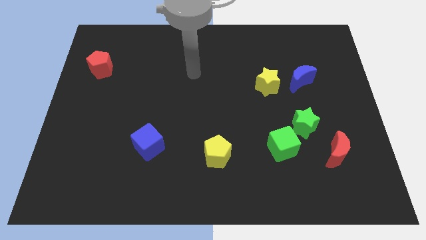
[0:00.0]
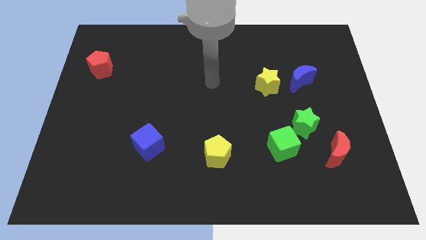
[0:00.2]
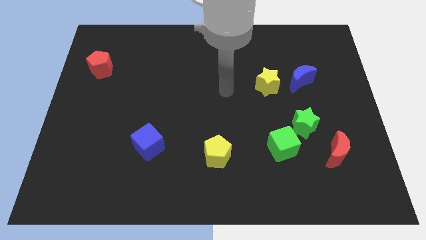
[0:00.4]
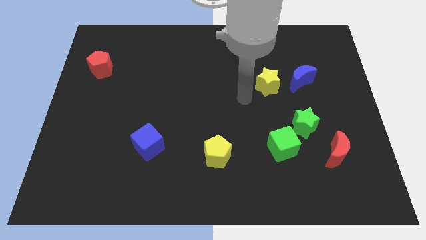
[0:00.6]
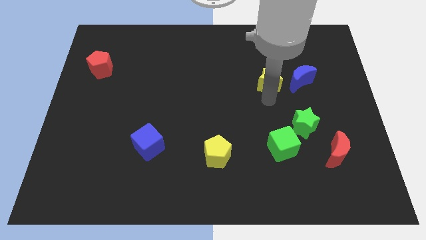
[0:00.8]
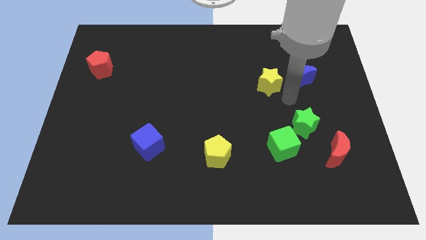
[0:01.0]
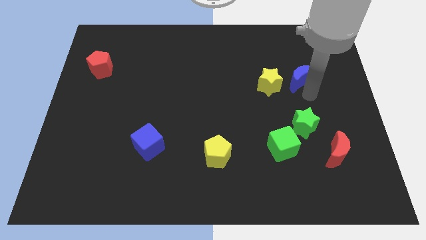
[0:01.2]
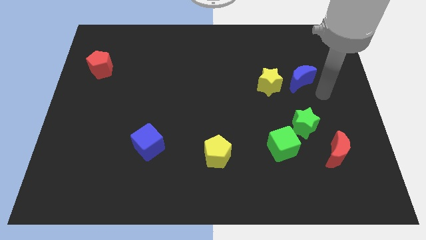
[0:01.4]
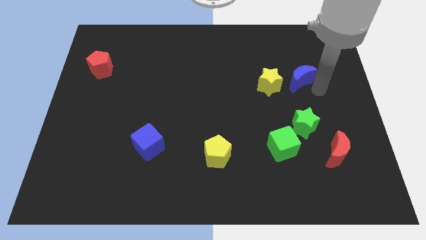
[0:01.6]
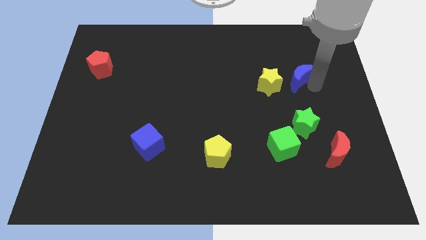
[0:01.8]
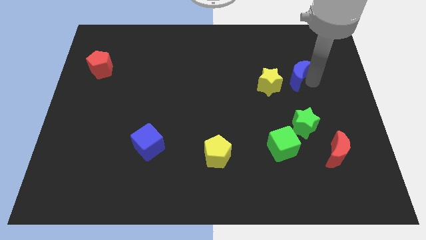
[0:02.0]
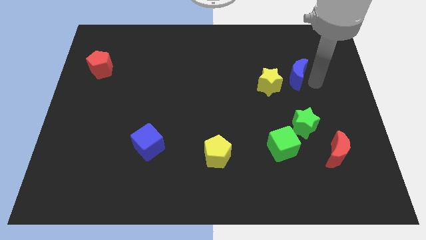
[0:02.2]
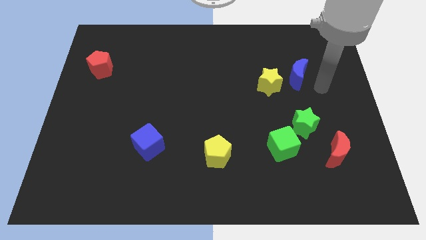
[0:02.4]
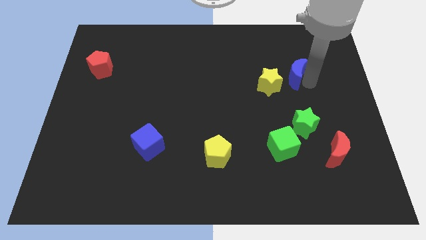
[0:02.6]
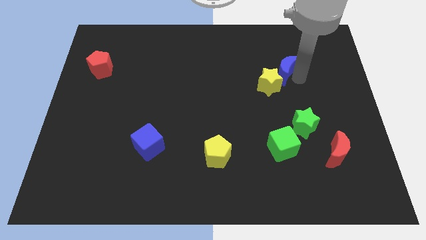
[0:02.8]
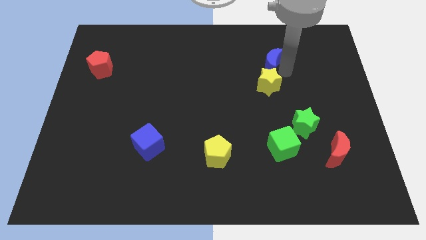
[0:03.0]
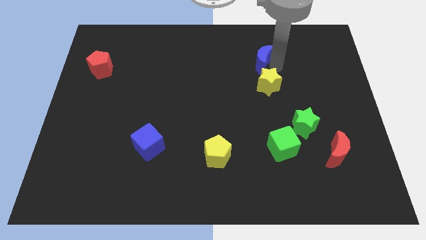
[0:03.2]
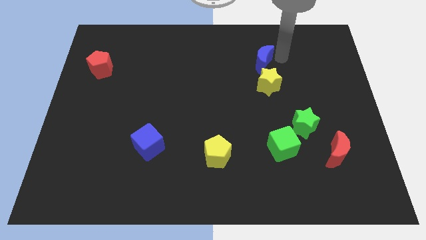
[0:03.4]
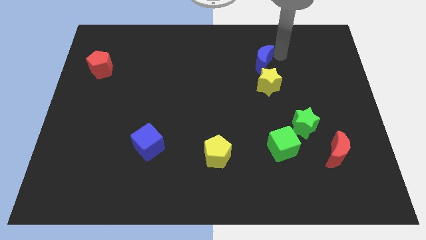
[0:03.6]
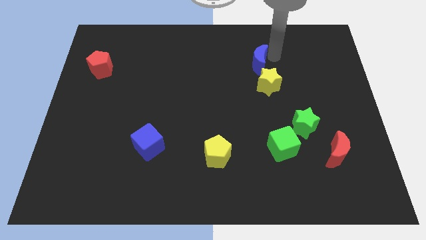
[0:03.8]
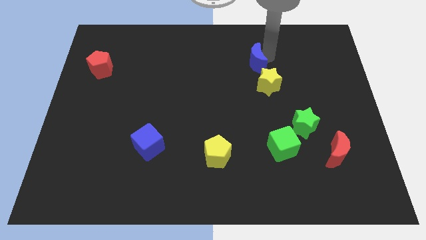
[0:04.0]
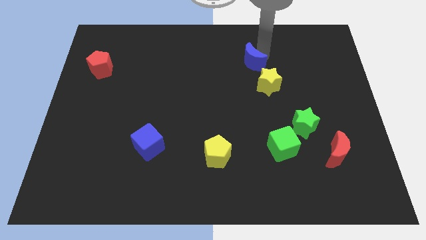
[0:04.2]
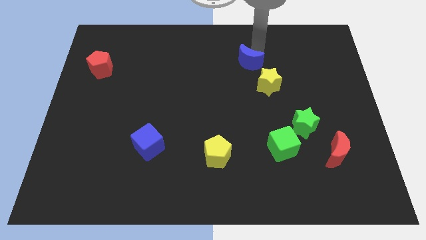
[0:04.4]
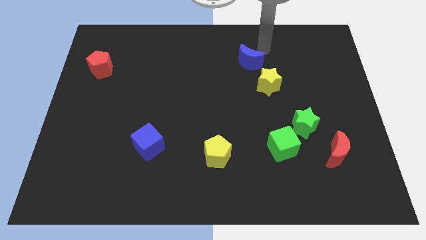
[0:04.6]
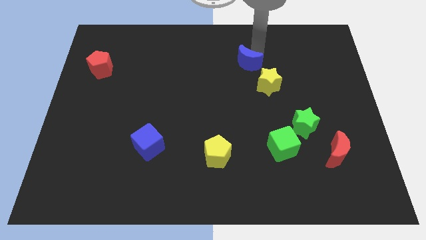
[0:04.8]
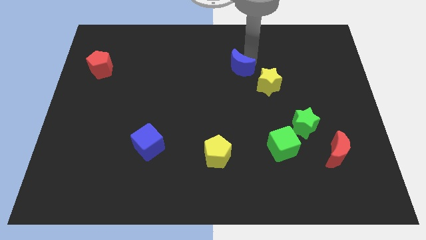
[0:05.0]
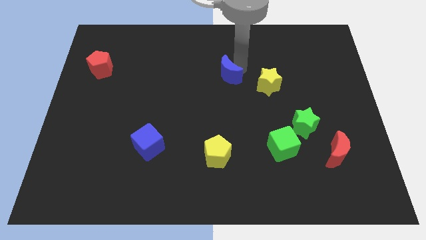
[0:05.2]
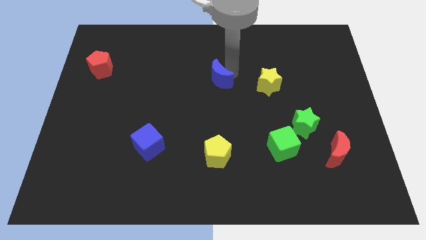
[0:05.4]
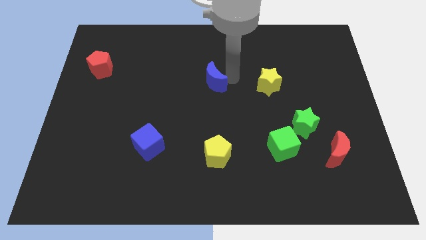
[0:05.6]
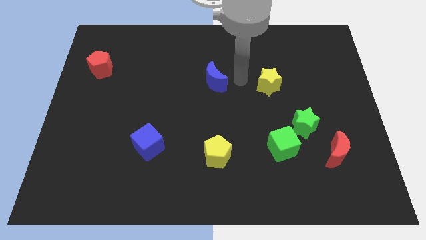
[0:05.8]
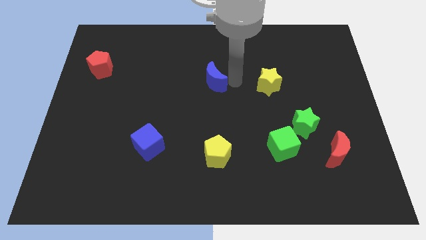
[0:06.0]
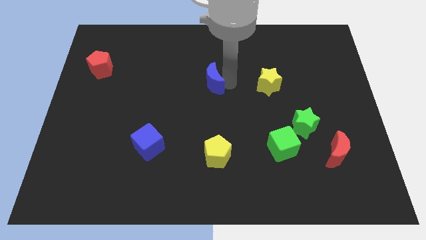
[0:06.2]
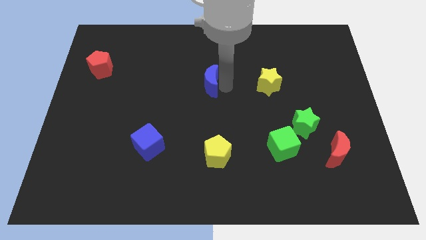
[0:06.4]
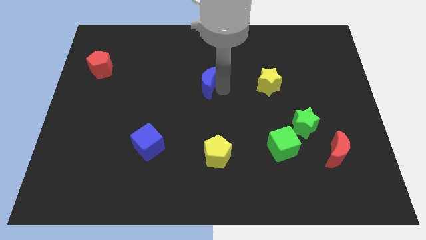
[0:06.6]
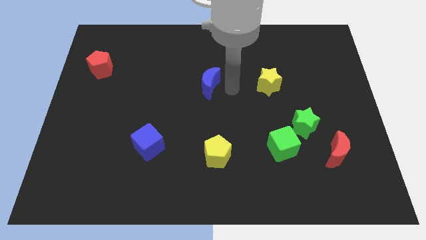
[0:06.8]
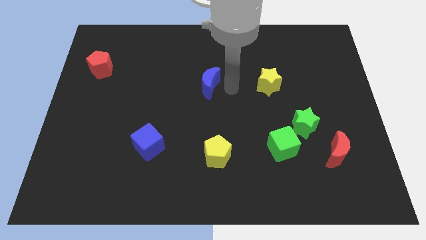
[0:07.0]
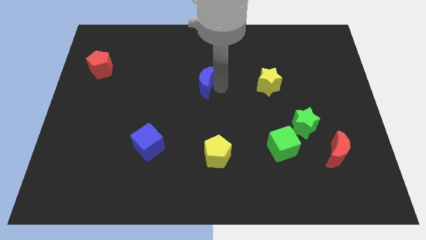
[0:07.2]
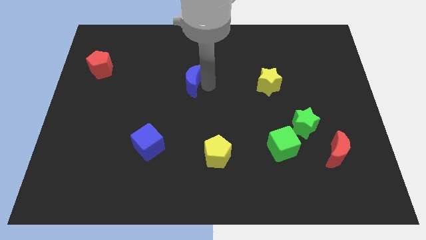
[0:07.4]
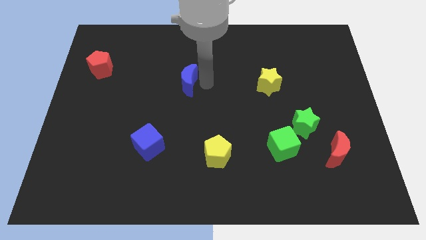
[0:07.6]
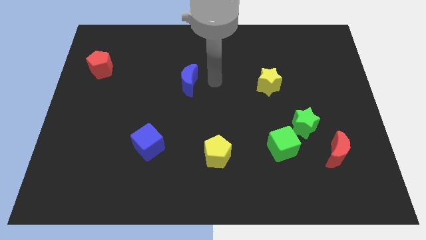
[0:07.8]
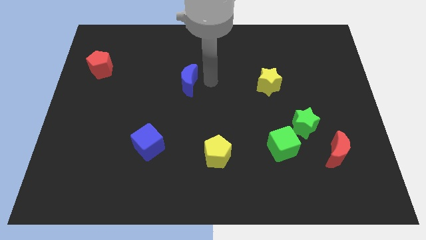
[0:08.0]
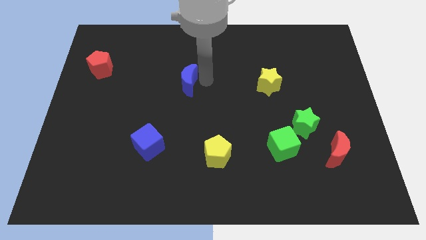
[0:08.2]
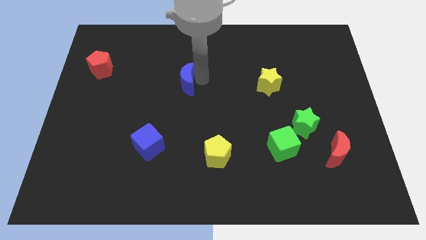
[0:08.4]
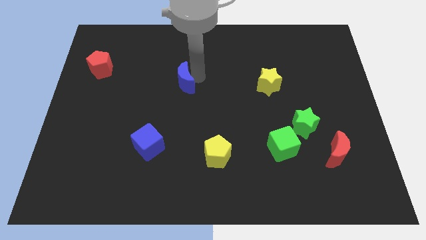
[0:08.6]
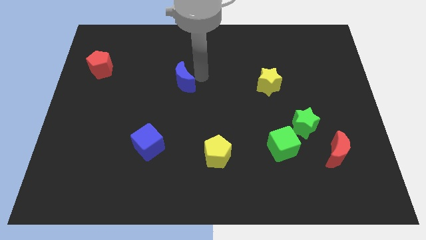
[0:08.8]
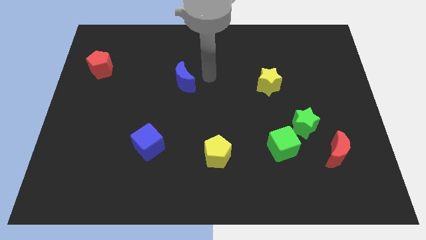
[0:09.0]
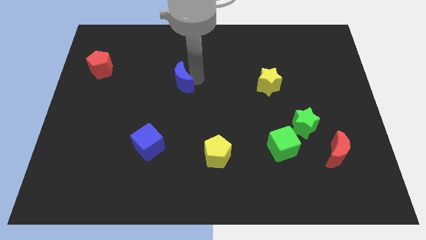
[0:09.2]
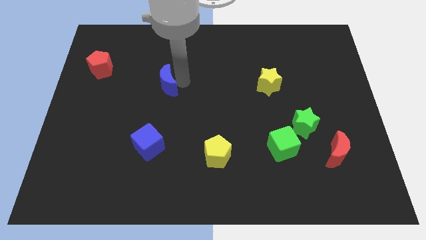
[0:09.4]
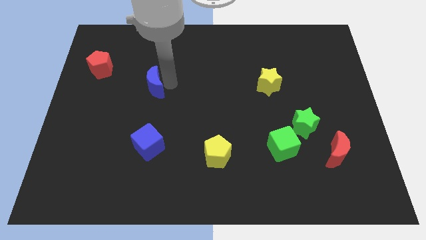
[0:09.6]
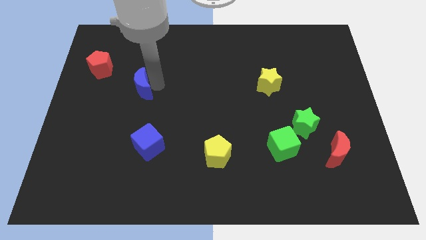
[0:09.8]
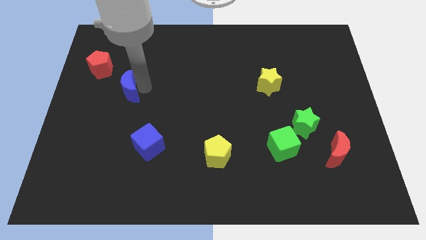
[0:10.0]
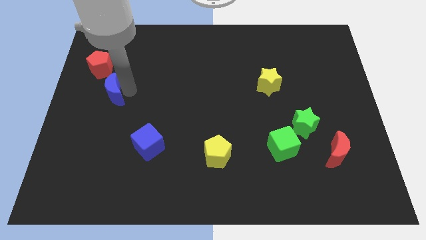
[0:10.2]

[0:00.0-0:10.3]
move the blue moon to the bottom side of the red pentagon

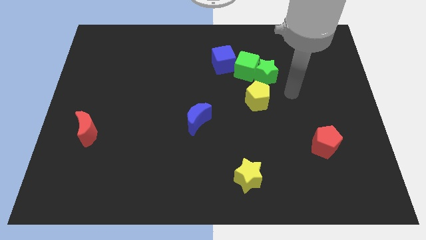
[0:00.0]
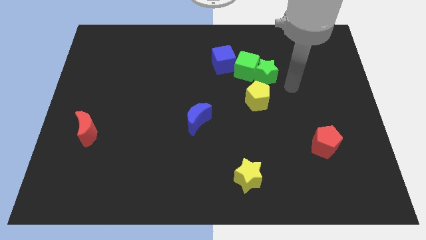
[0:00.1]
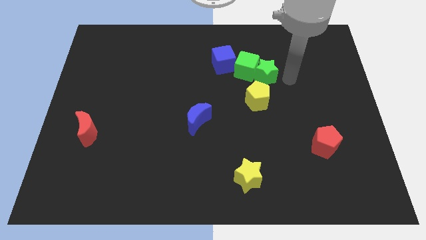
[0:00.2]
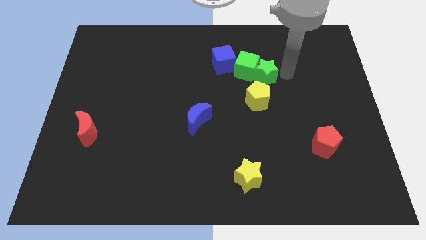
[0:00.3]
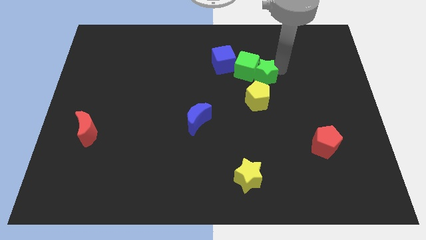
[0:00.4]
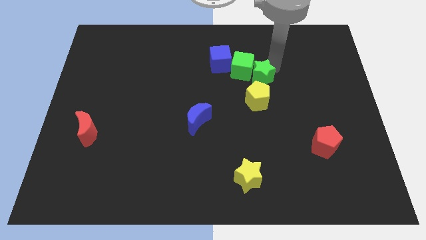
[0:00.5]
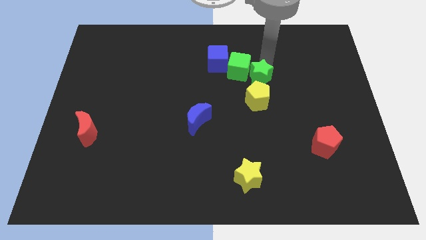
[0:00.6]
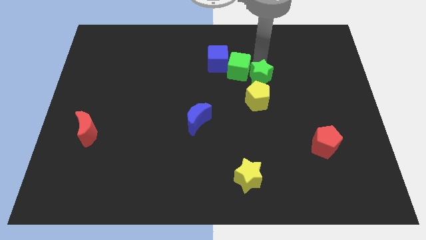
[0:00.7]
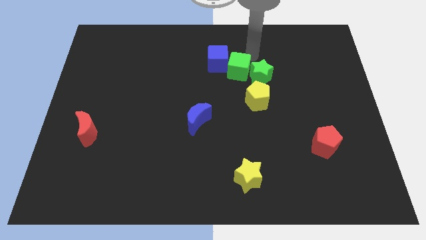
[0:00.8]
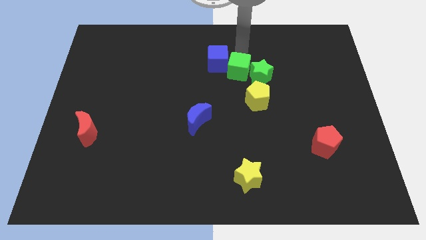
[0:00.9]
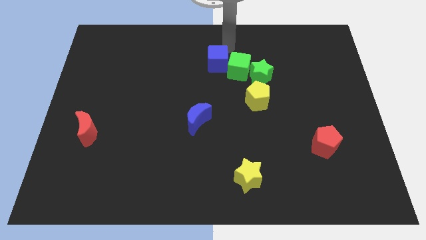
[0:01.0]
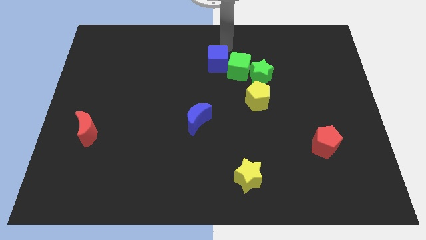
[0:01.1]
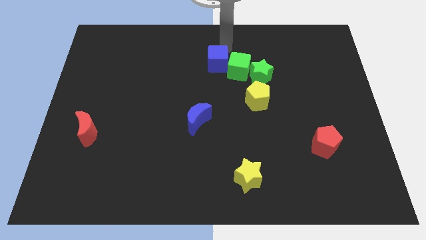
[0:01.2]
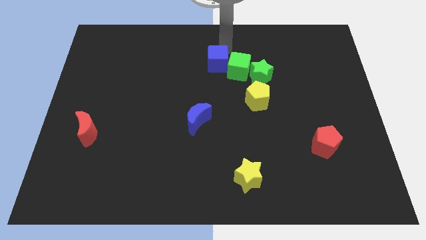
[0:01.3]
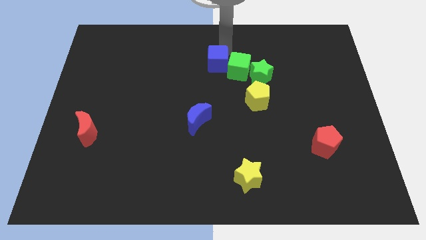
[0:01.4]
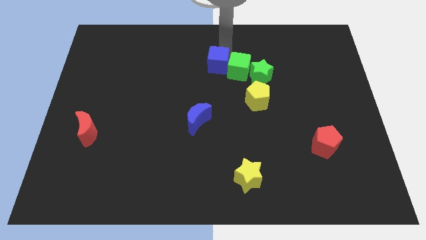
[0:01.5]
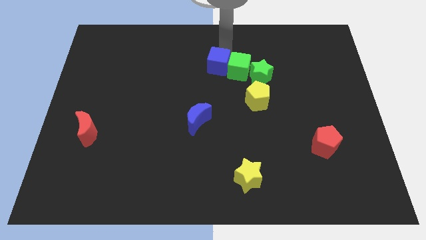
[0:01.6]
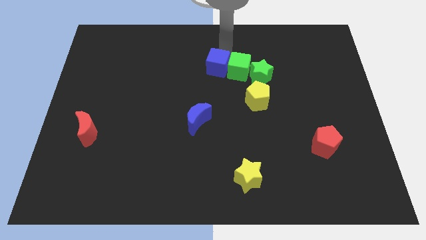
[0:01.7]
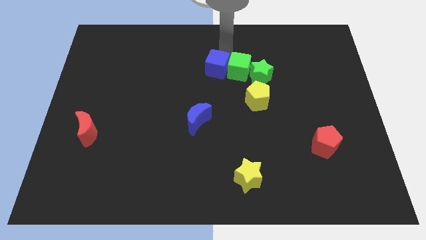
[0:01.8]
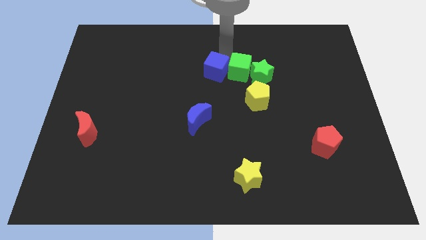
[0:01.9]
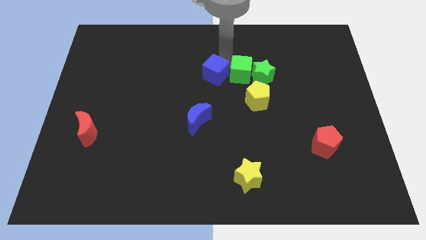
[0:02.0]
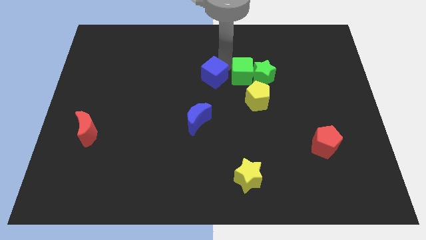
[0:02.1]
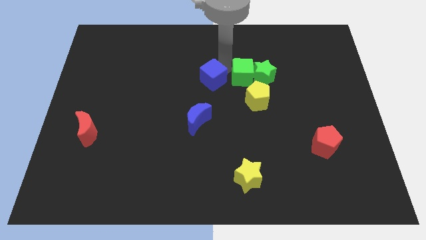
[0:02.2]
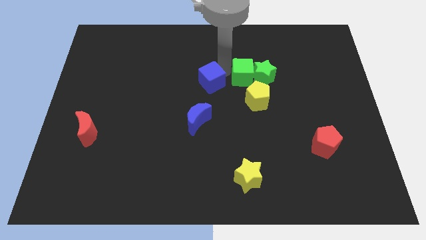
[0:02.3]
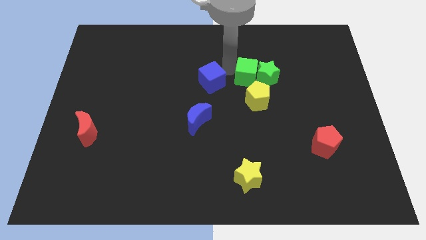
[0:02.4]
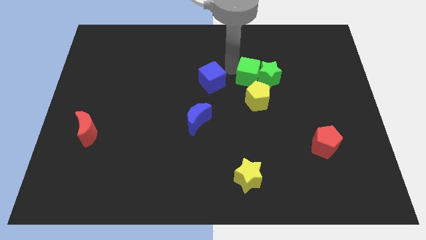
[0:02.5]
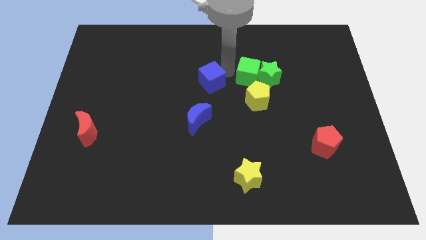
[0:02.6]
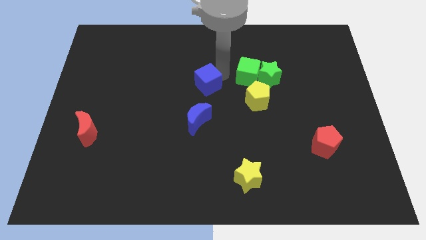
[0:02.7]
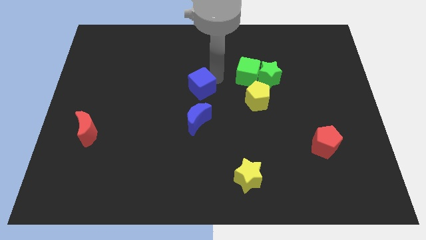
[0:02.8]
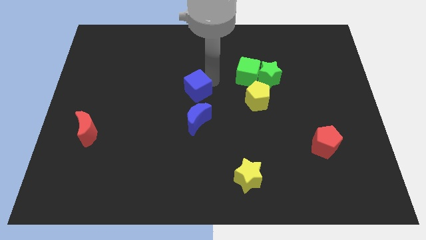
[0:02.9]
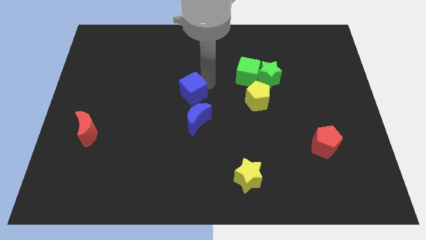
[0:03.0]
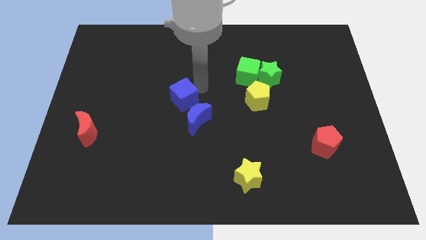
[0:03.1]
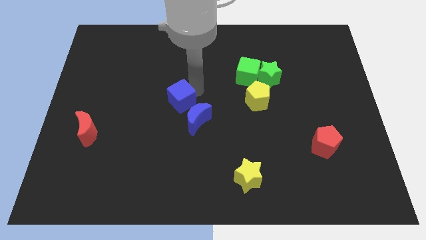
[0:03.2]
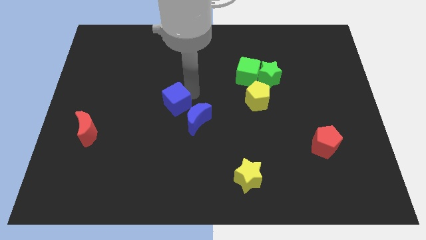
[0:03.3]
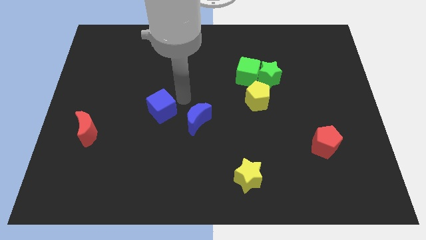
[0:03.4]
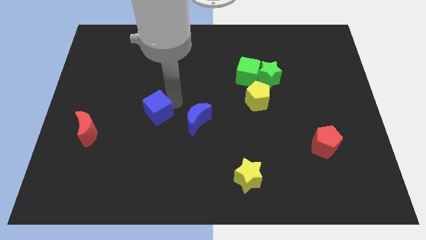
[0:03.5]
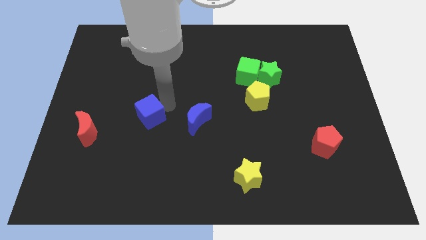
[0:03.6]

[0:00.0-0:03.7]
put the blue cube to the right side of the red moon
